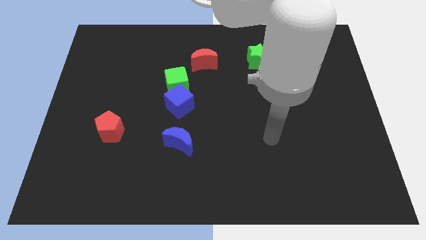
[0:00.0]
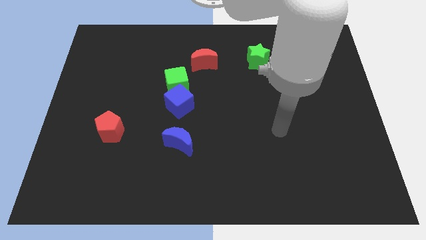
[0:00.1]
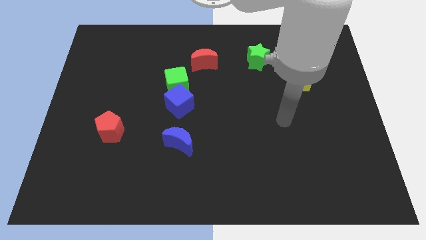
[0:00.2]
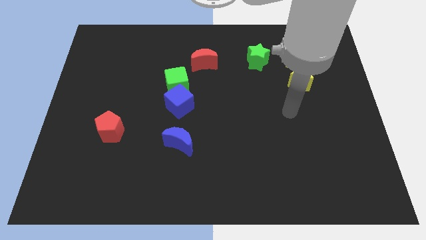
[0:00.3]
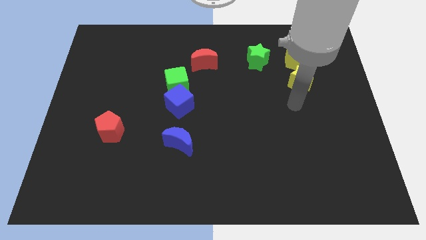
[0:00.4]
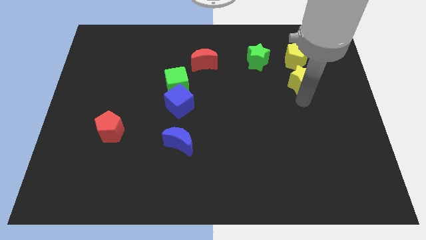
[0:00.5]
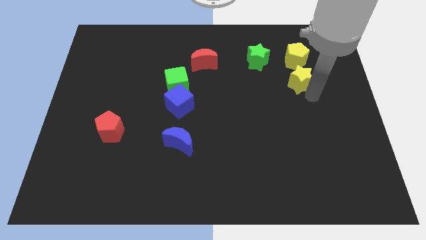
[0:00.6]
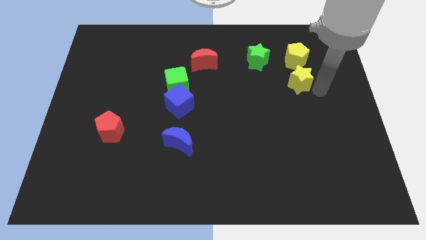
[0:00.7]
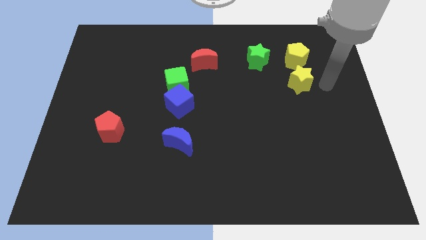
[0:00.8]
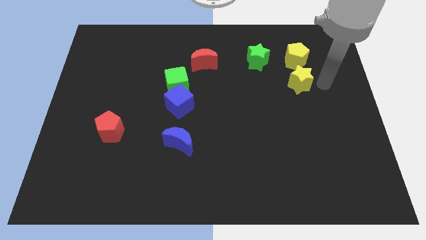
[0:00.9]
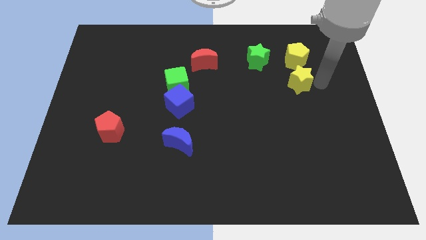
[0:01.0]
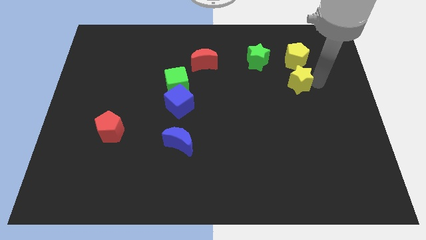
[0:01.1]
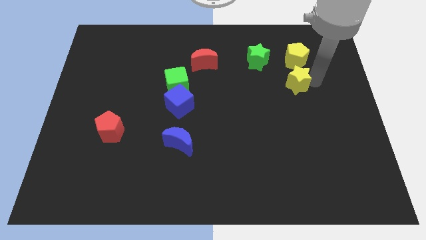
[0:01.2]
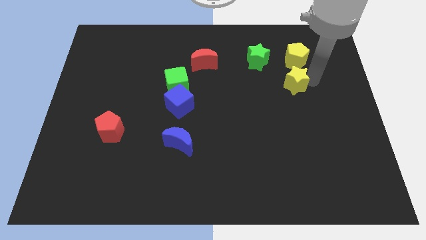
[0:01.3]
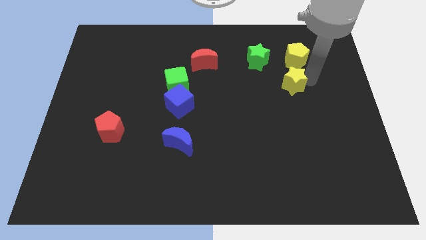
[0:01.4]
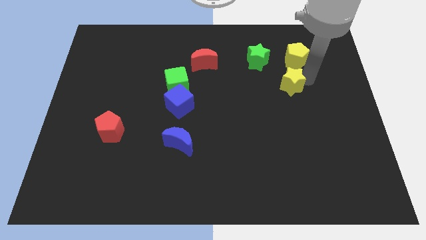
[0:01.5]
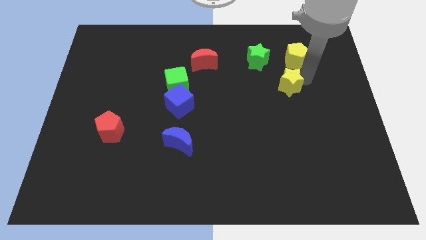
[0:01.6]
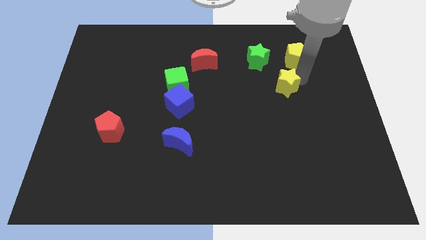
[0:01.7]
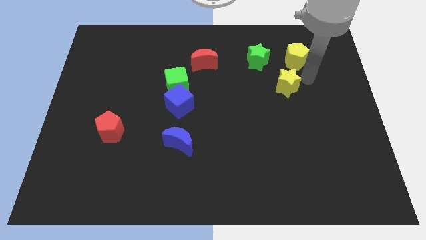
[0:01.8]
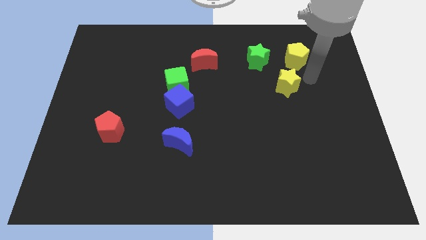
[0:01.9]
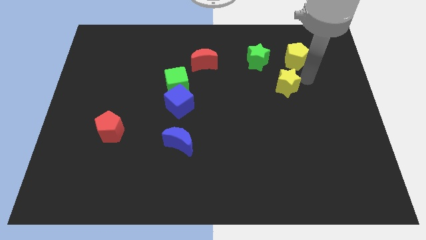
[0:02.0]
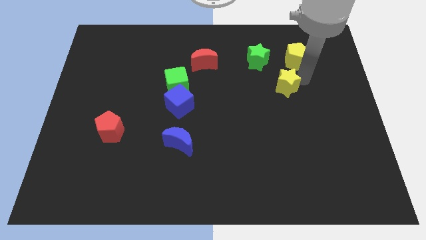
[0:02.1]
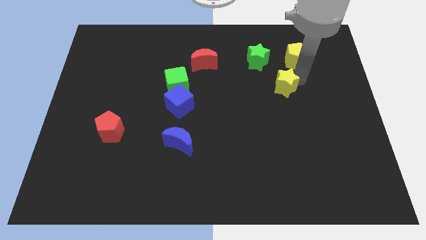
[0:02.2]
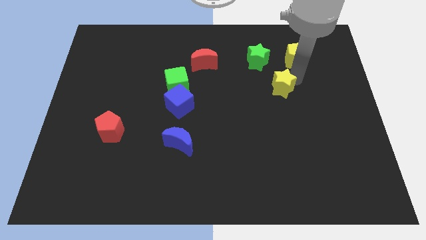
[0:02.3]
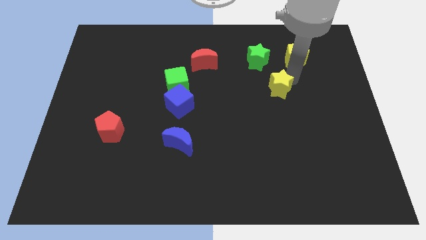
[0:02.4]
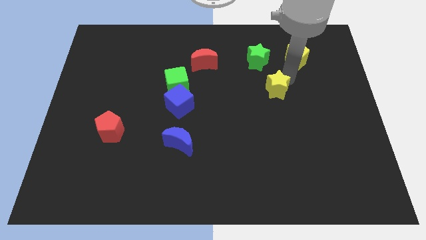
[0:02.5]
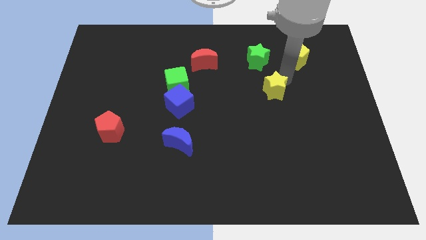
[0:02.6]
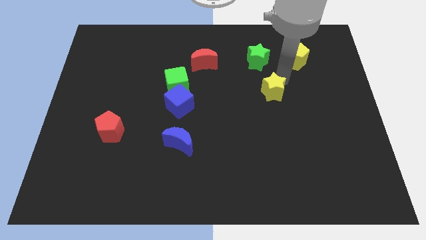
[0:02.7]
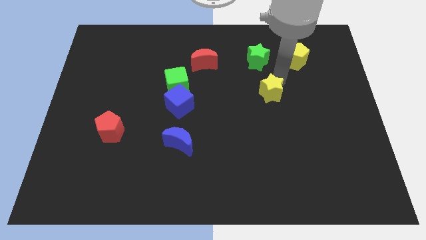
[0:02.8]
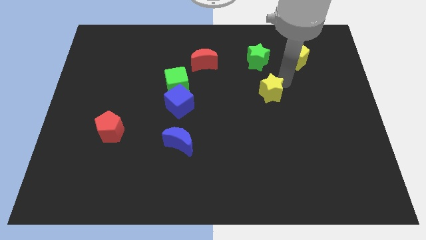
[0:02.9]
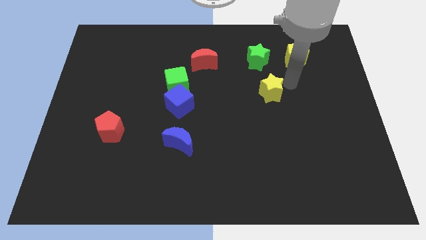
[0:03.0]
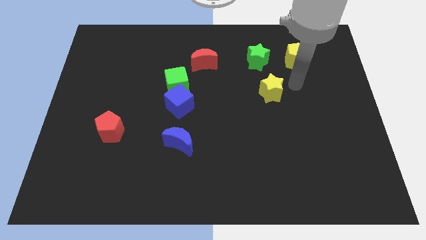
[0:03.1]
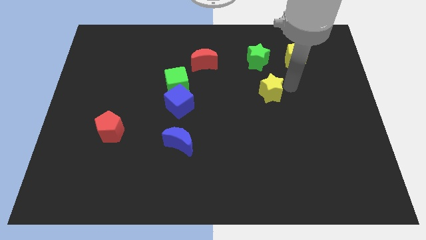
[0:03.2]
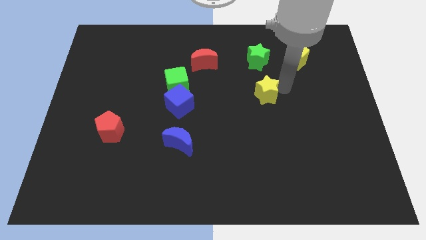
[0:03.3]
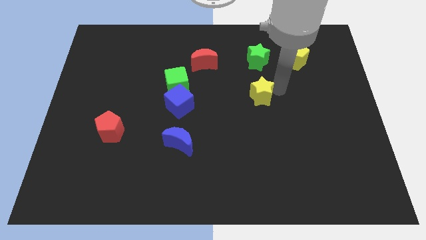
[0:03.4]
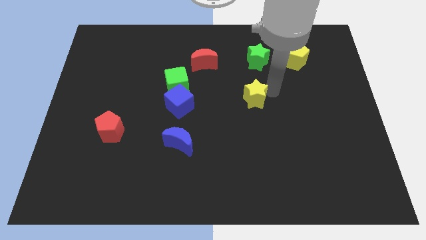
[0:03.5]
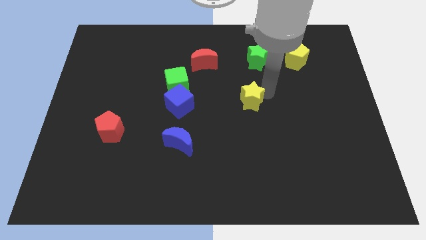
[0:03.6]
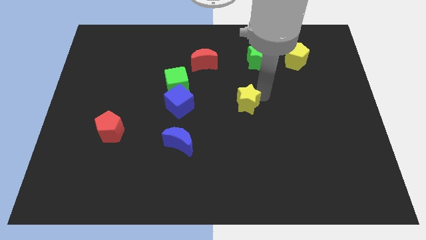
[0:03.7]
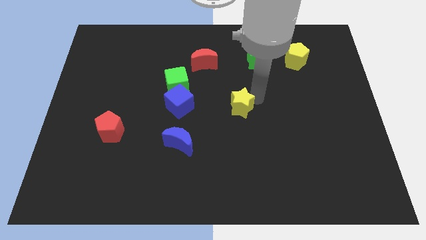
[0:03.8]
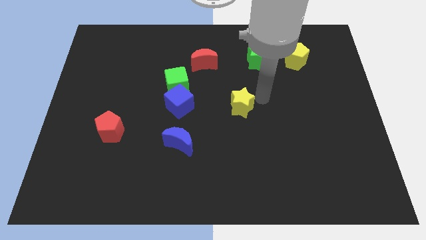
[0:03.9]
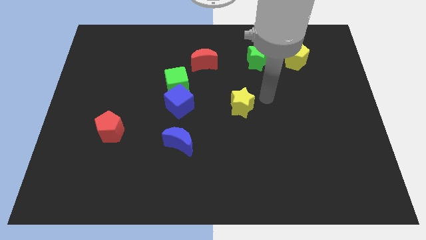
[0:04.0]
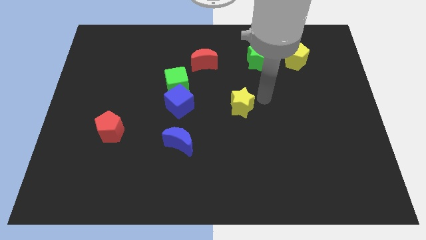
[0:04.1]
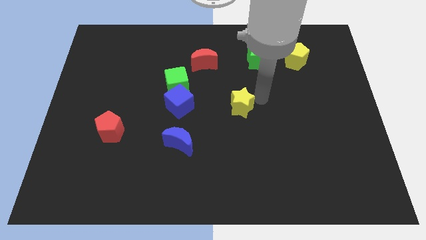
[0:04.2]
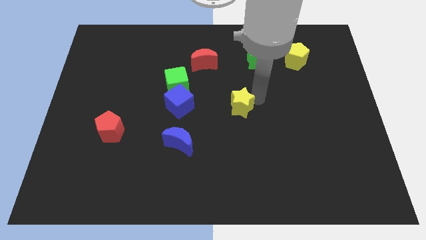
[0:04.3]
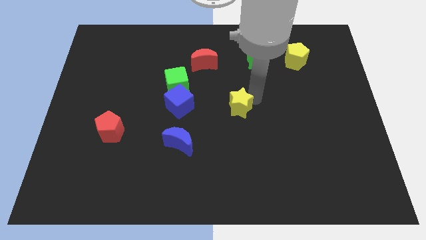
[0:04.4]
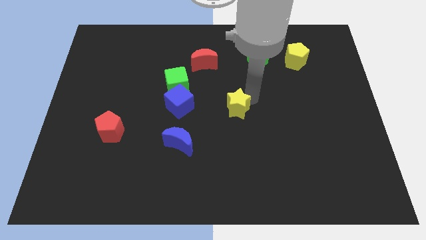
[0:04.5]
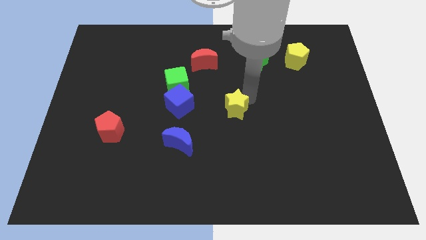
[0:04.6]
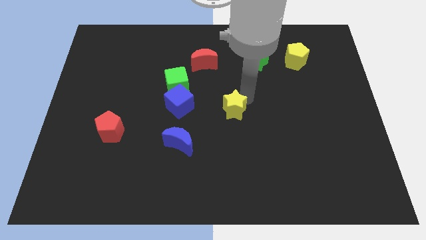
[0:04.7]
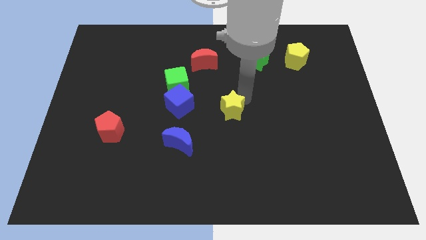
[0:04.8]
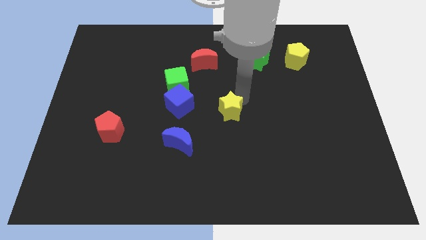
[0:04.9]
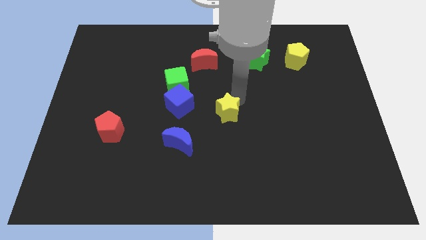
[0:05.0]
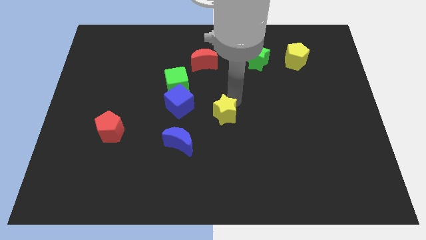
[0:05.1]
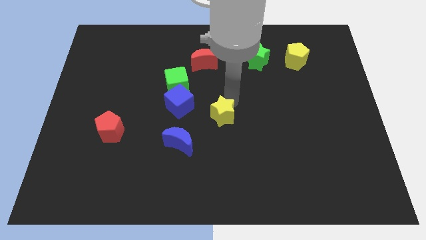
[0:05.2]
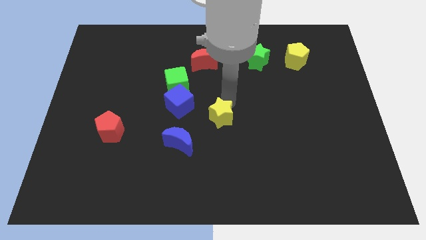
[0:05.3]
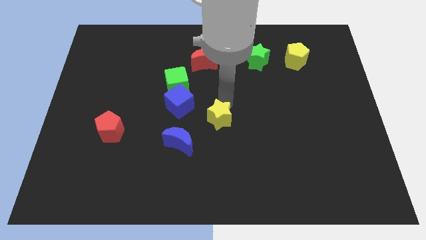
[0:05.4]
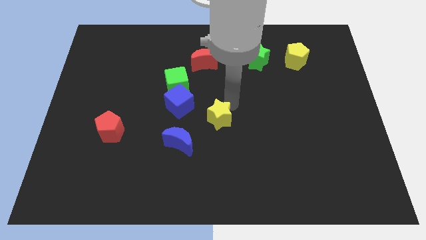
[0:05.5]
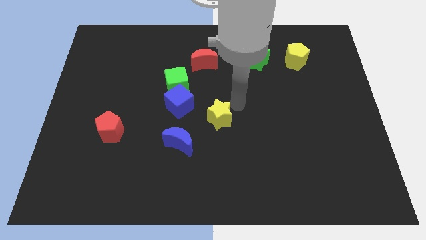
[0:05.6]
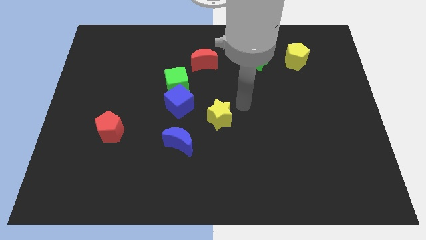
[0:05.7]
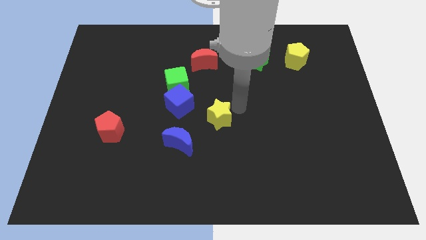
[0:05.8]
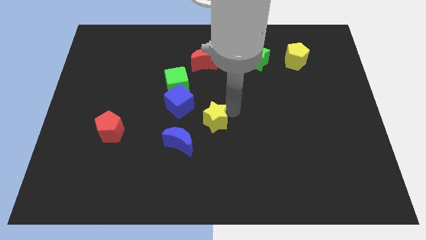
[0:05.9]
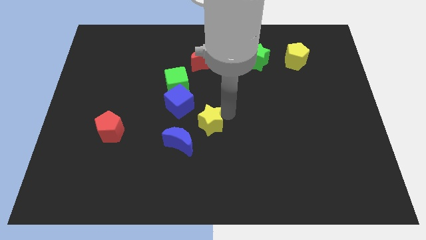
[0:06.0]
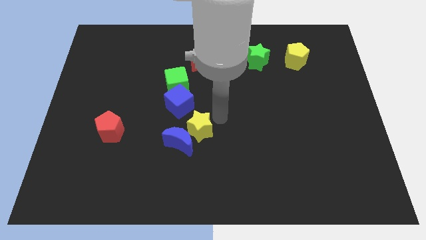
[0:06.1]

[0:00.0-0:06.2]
move the yellow star to the blue moon

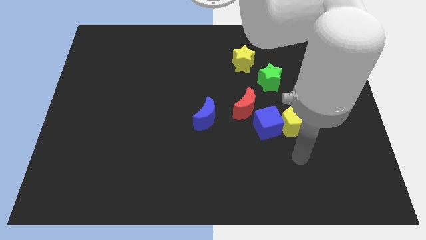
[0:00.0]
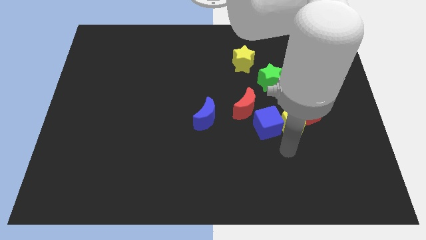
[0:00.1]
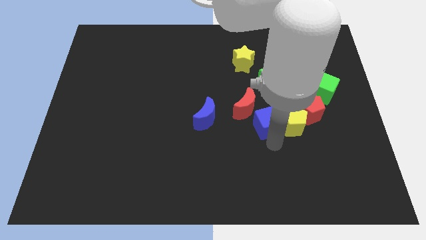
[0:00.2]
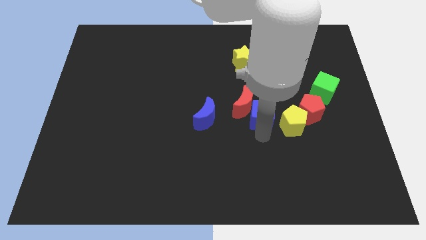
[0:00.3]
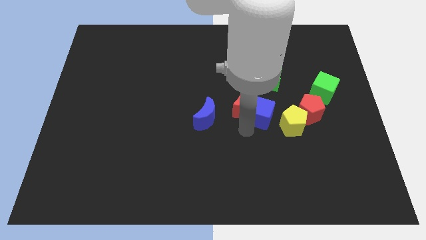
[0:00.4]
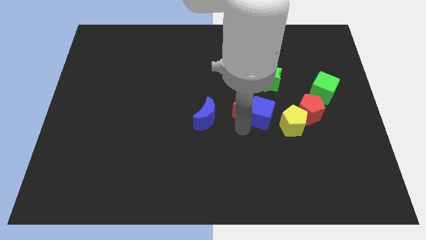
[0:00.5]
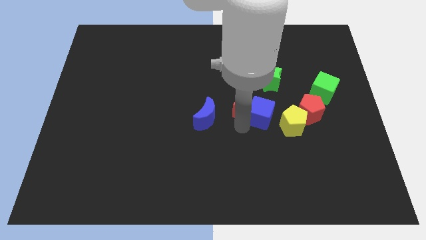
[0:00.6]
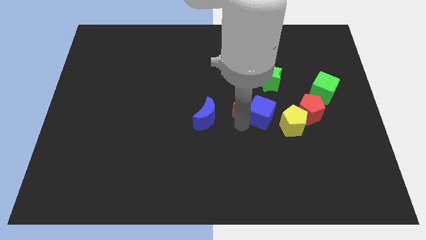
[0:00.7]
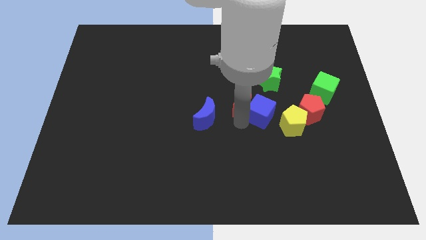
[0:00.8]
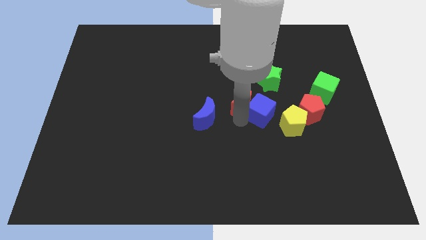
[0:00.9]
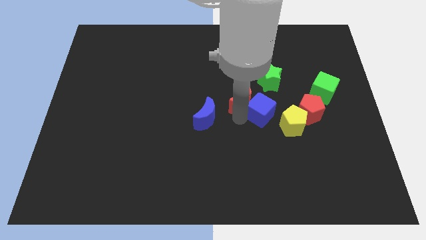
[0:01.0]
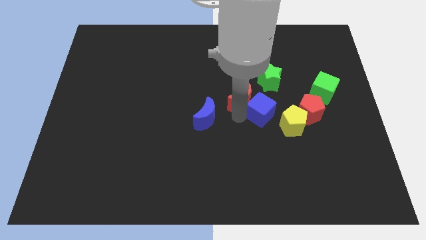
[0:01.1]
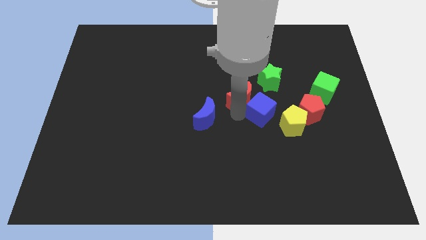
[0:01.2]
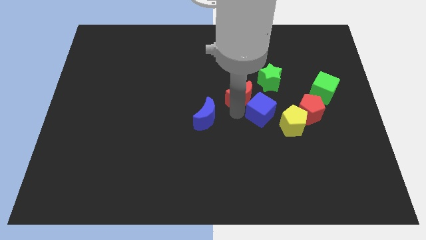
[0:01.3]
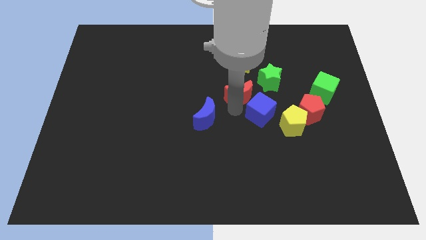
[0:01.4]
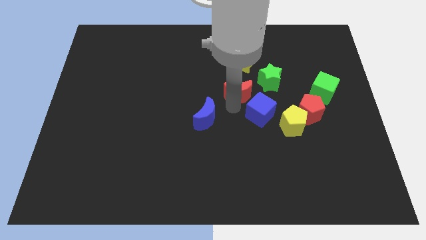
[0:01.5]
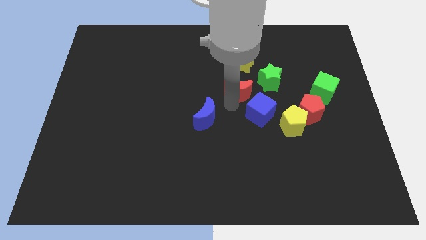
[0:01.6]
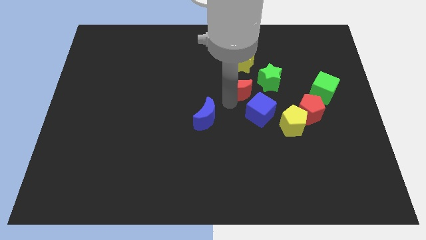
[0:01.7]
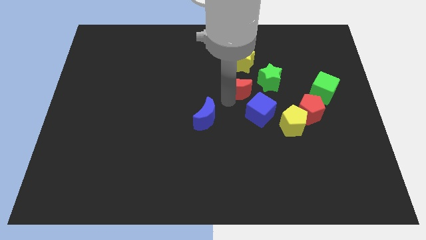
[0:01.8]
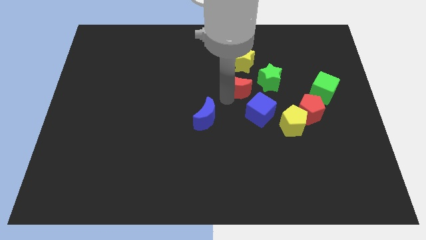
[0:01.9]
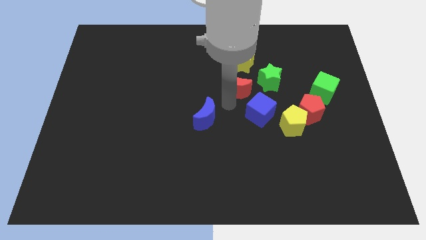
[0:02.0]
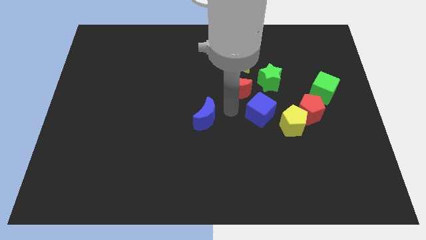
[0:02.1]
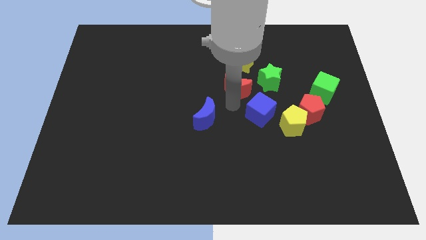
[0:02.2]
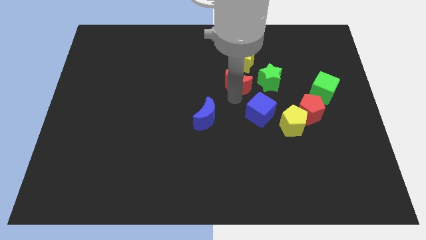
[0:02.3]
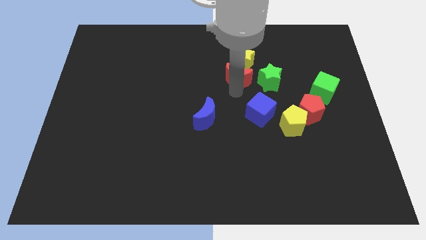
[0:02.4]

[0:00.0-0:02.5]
put the red moon close to the yellow star

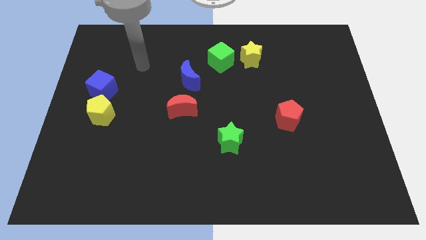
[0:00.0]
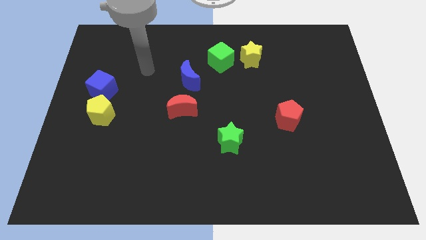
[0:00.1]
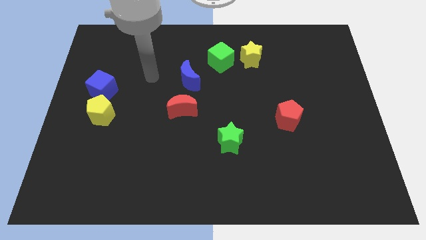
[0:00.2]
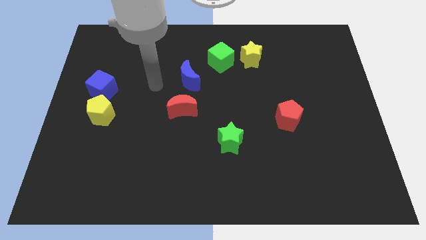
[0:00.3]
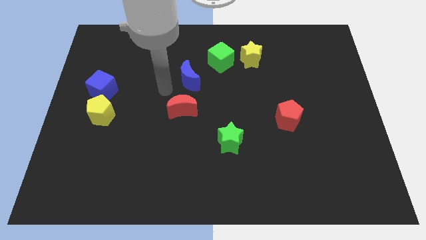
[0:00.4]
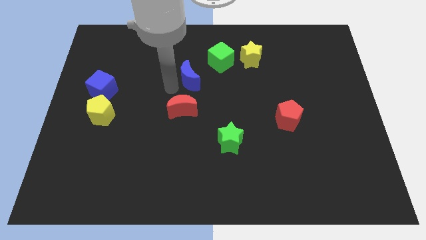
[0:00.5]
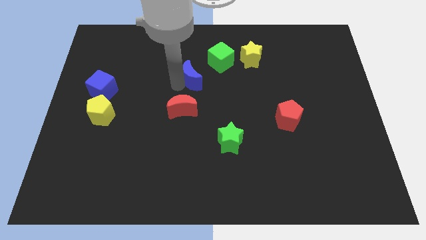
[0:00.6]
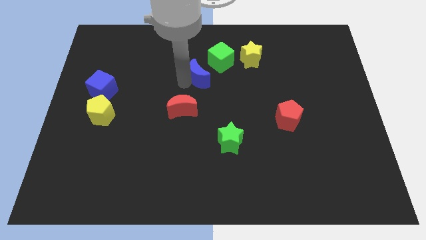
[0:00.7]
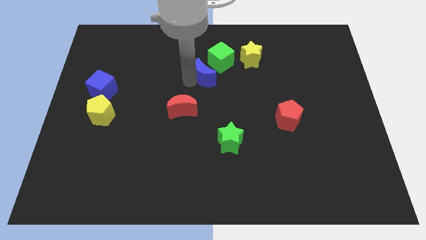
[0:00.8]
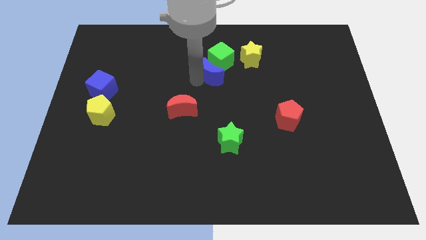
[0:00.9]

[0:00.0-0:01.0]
push the blue moon next to the green cube
